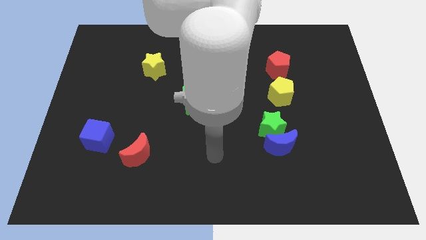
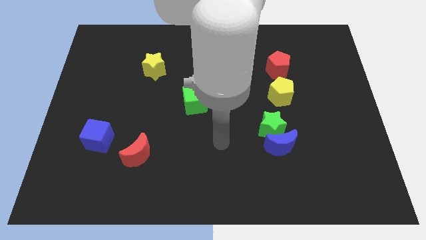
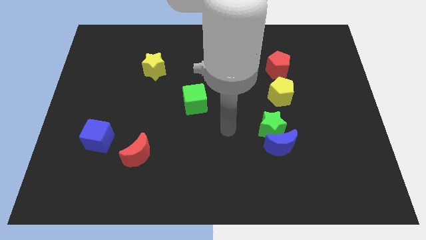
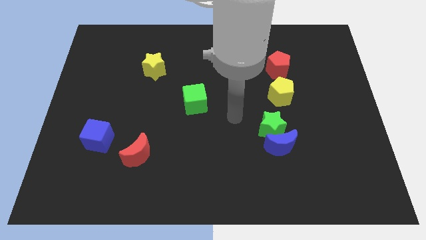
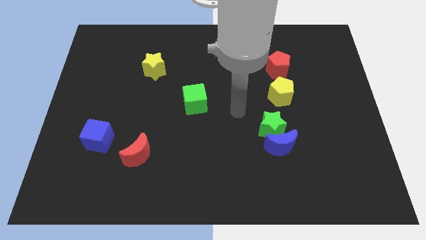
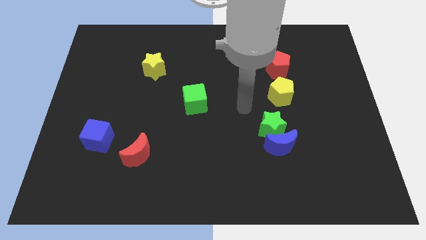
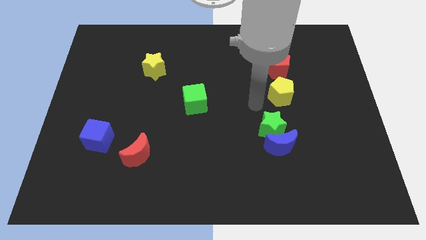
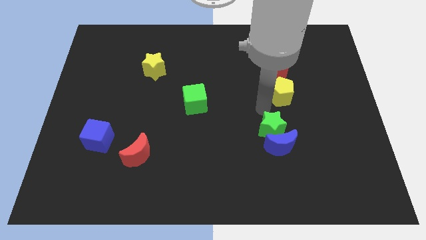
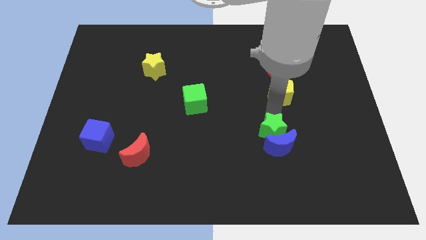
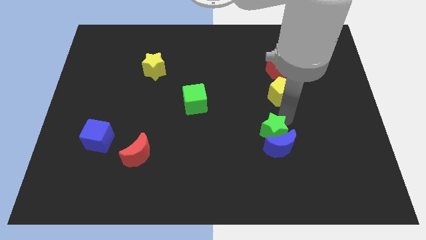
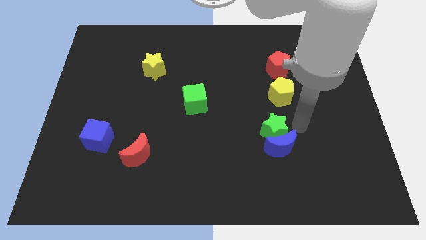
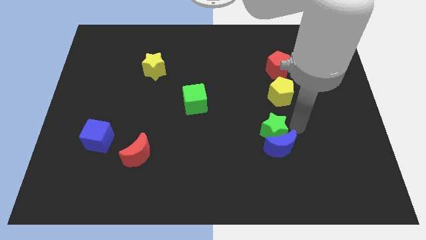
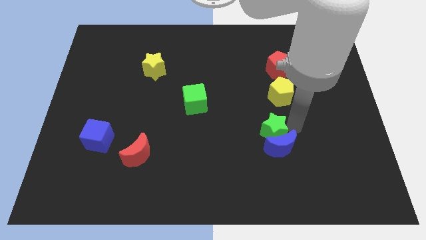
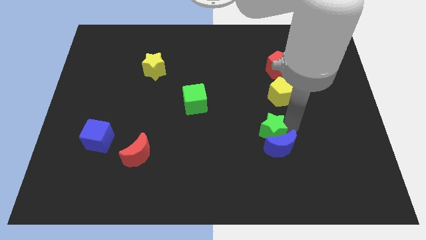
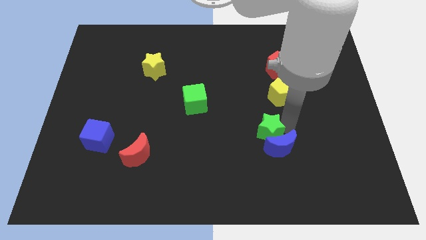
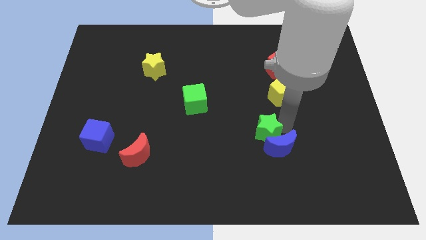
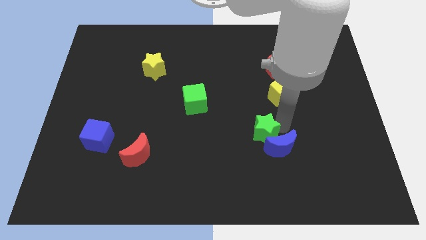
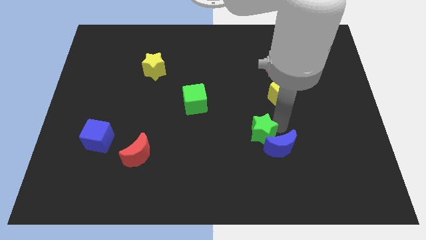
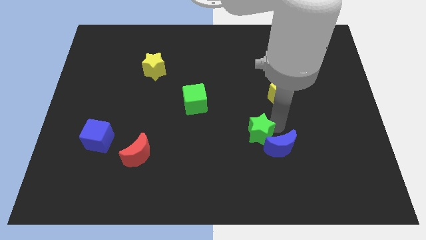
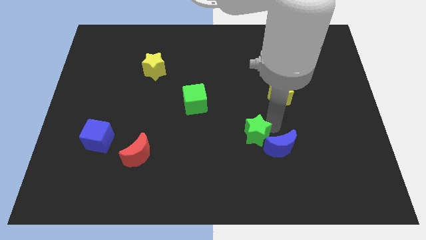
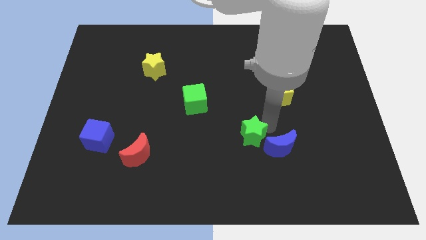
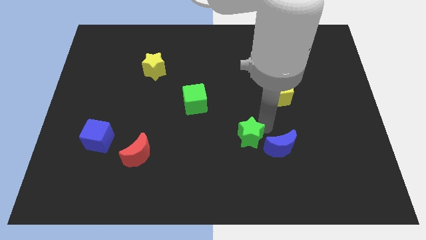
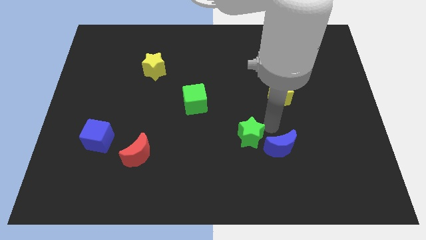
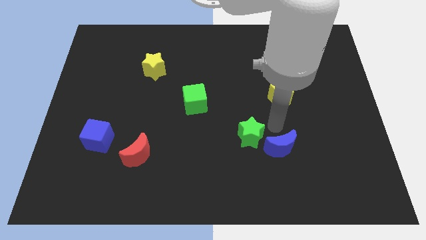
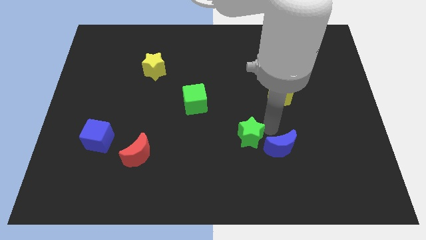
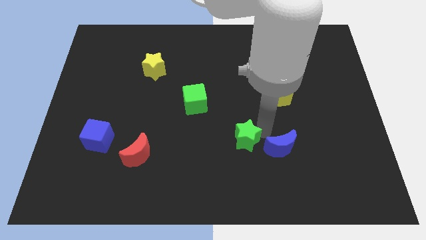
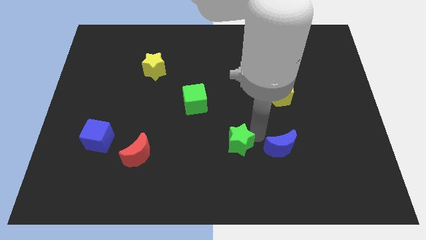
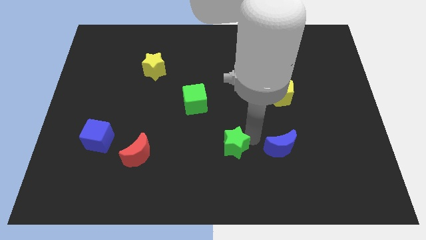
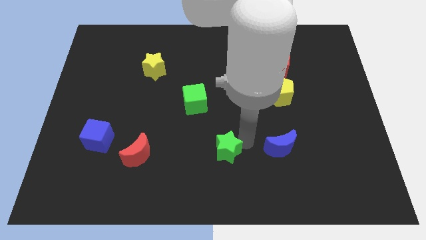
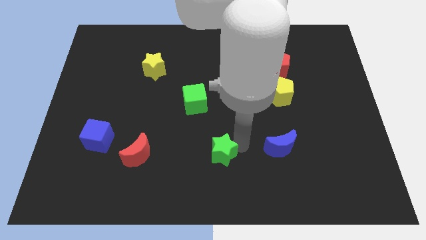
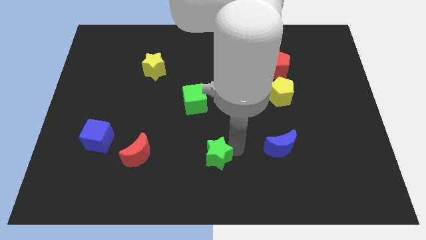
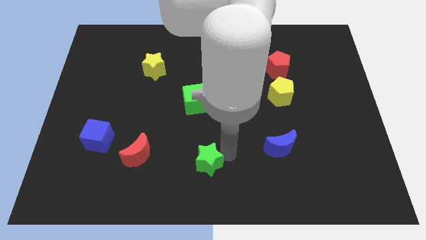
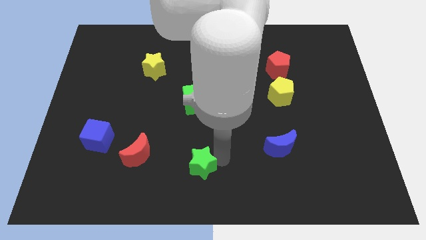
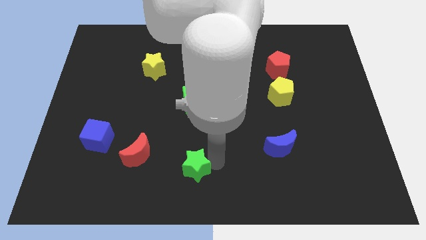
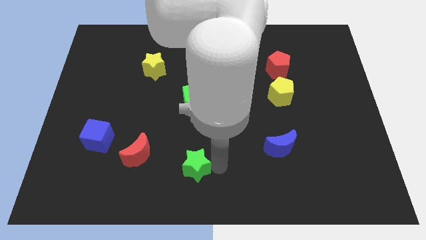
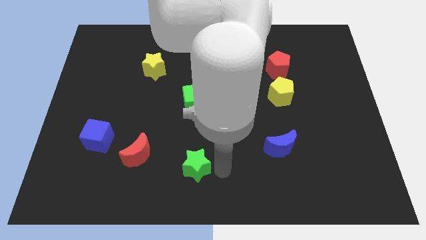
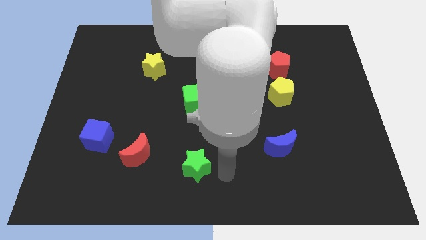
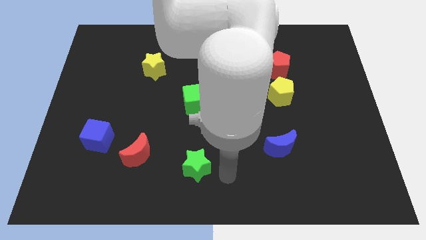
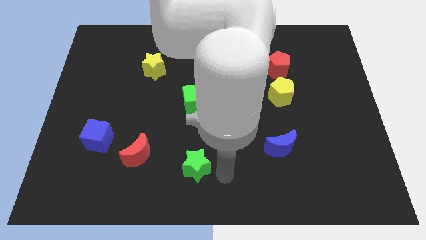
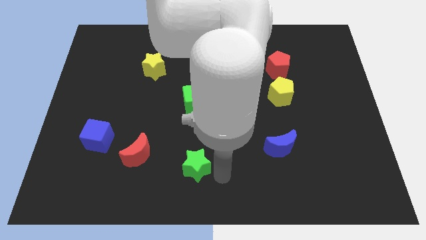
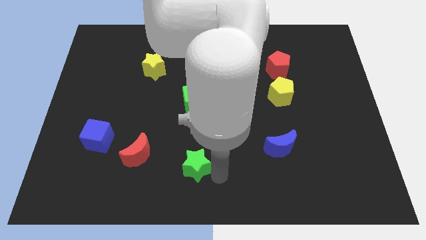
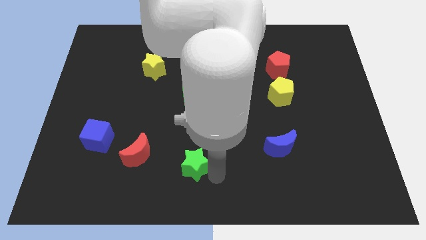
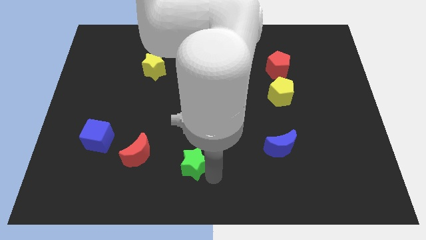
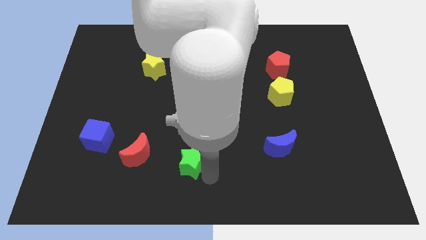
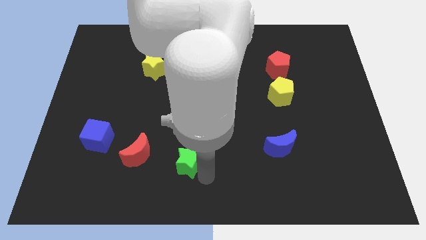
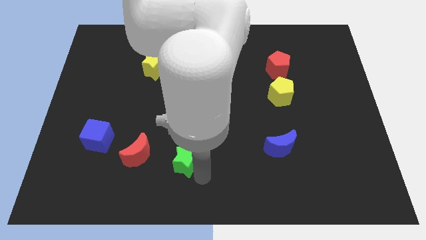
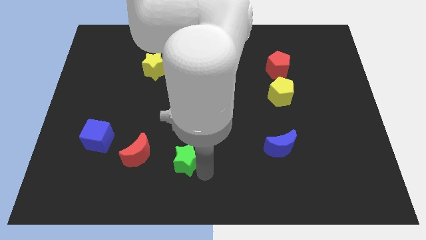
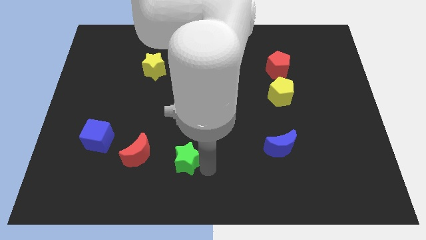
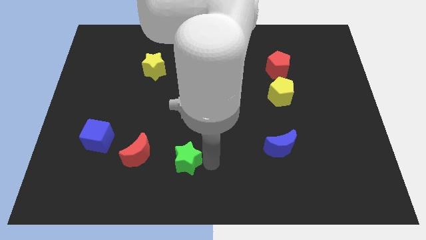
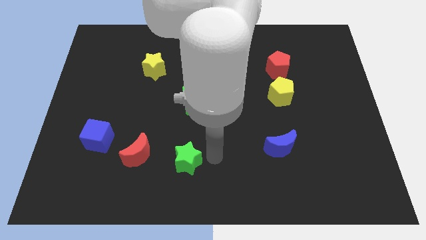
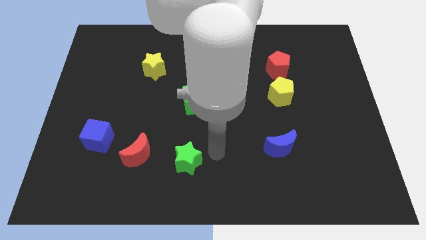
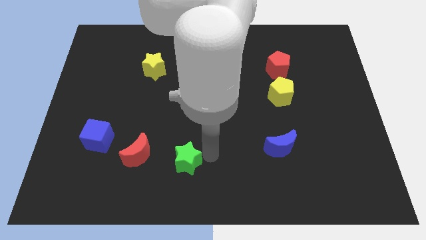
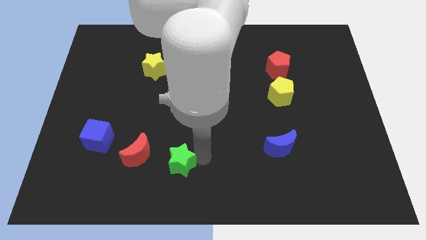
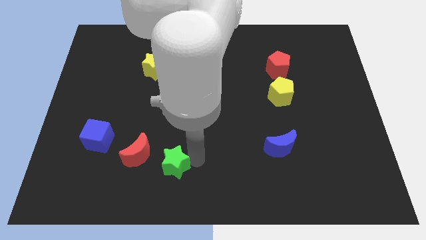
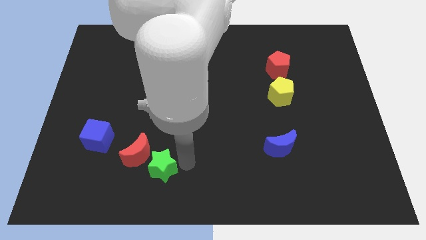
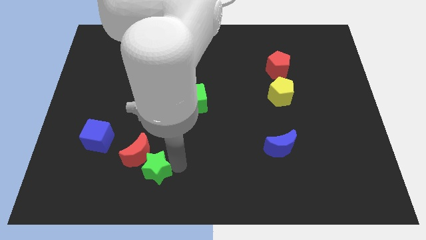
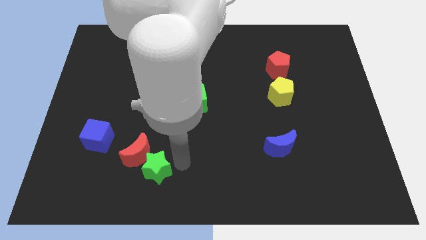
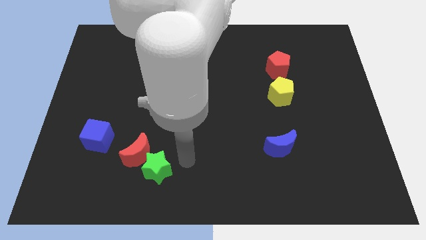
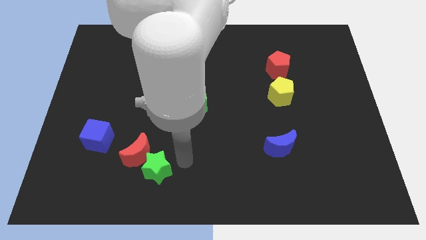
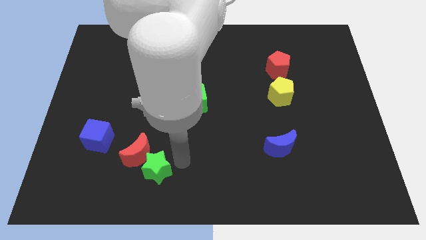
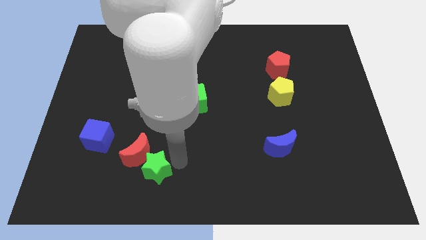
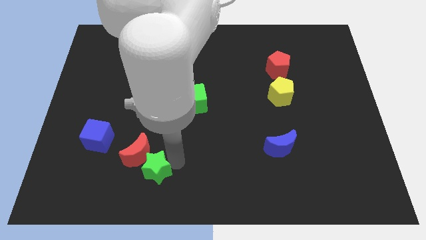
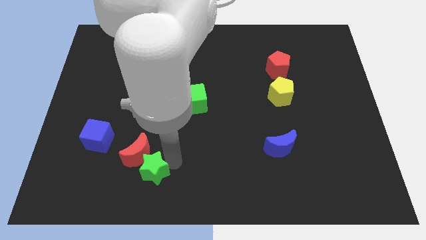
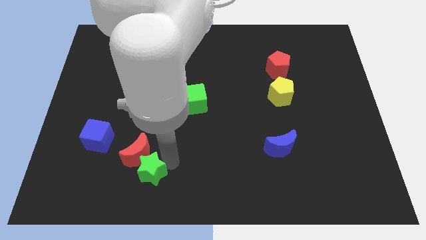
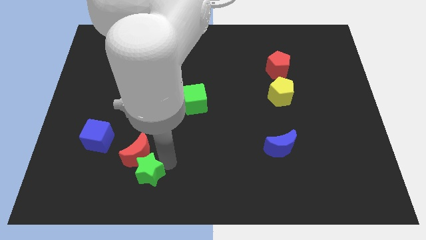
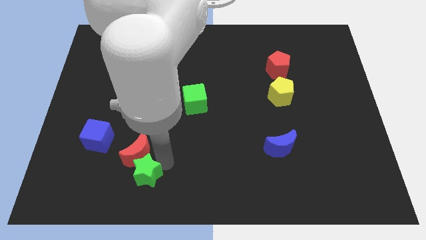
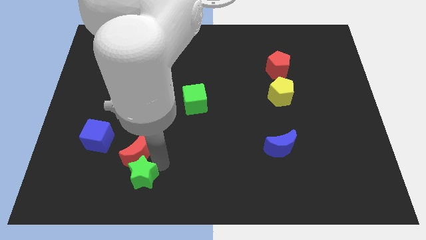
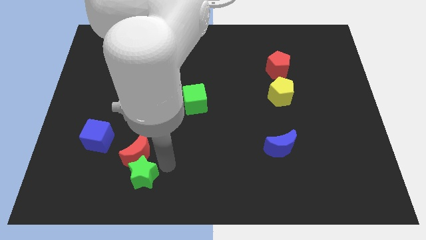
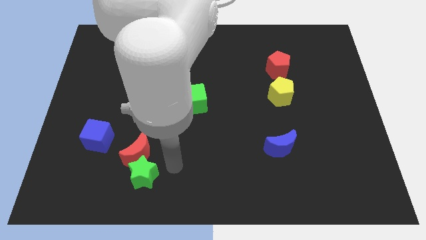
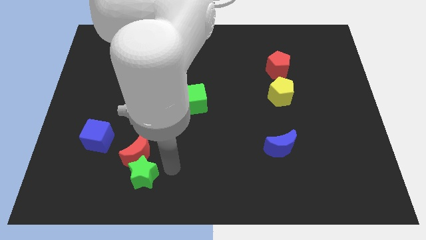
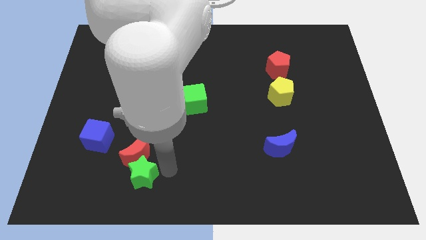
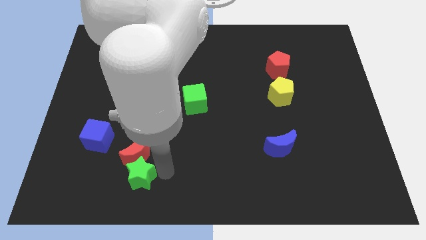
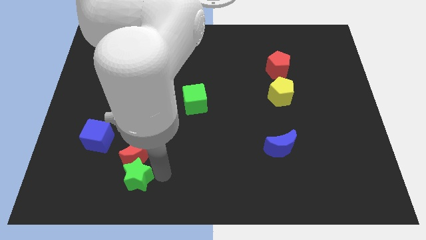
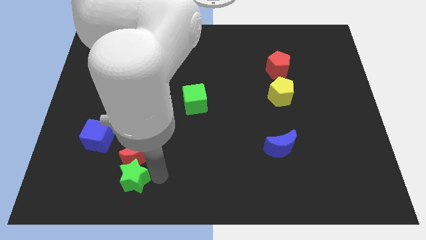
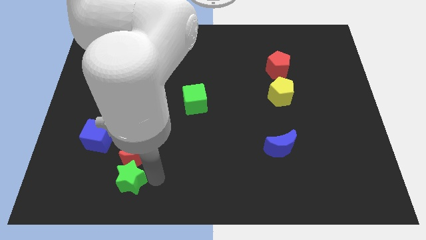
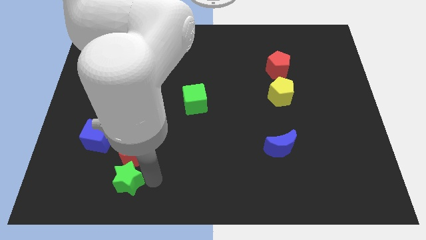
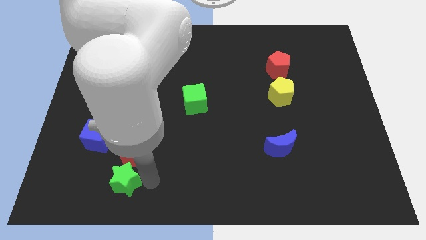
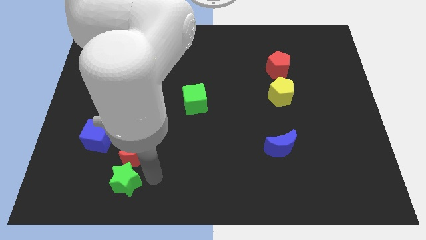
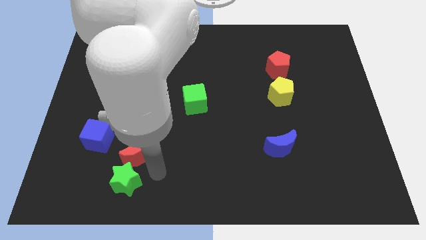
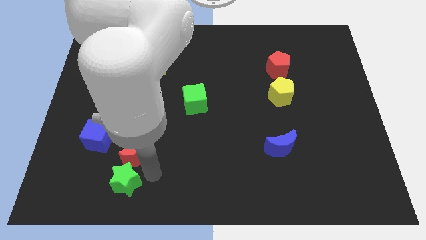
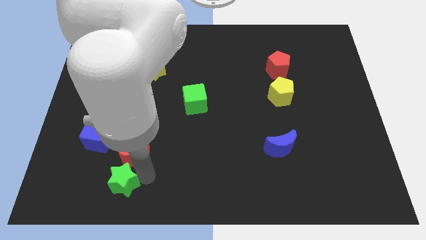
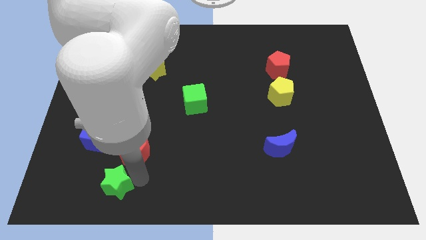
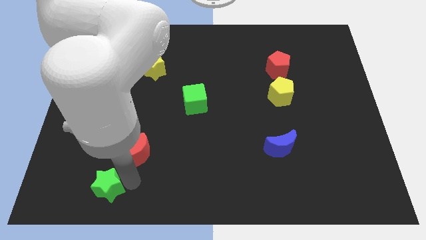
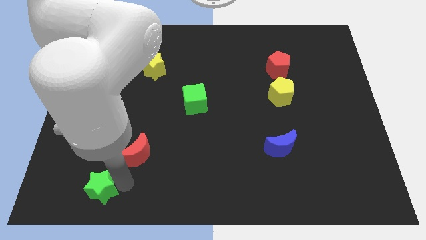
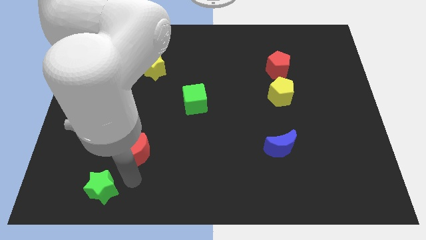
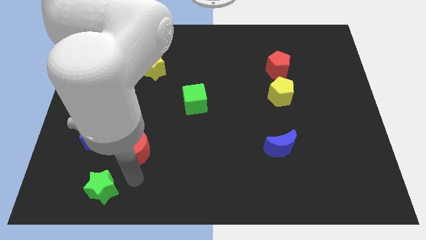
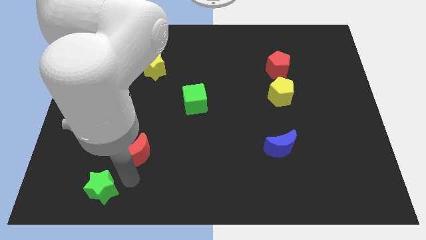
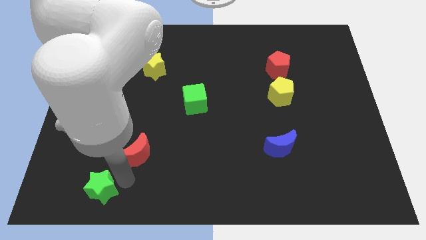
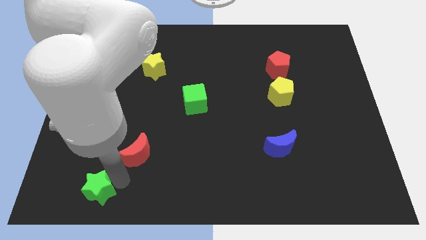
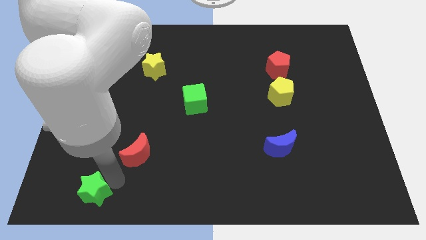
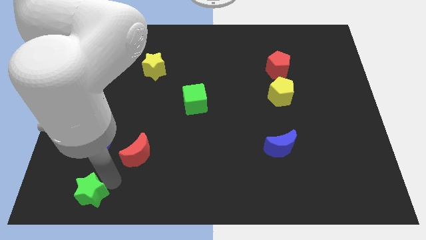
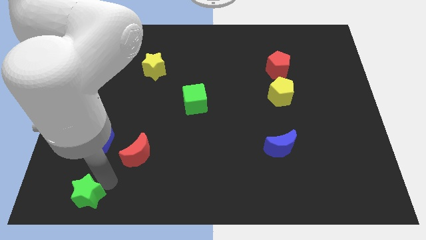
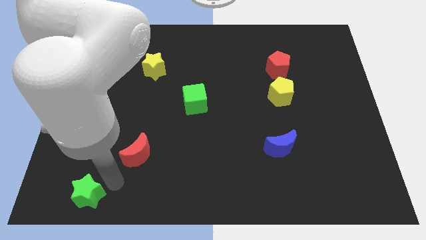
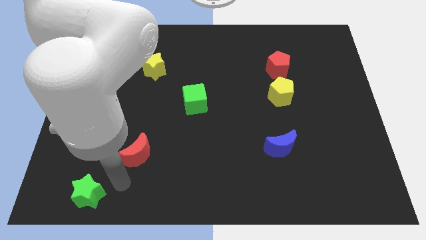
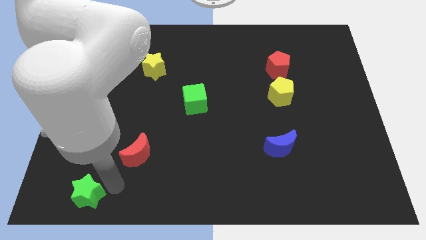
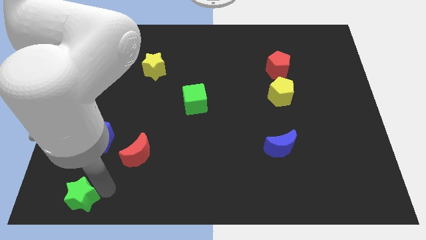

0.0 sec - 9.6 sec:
move the green star to the lower left corner
